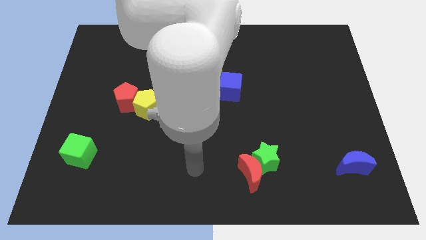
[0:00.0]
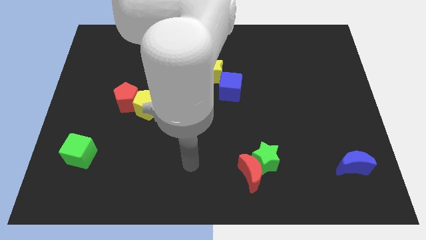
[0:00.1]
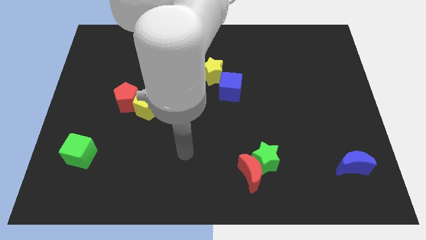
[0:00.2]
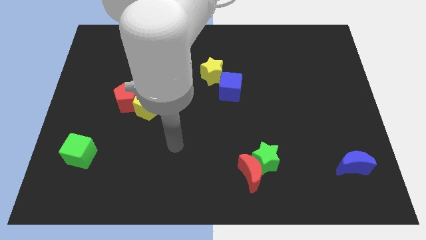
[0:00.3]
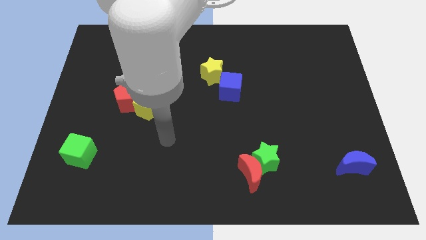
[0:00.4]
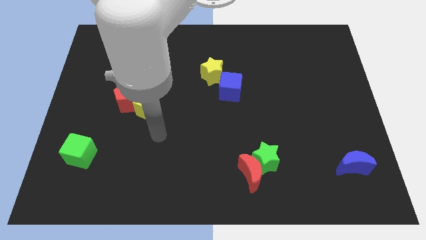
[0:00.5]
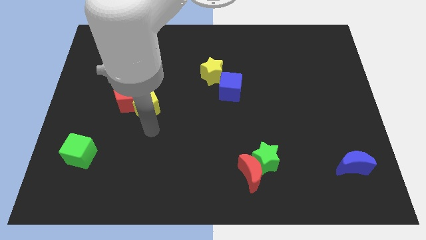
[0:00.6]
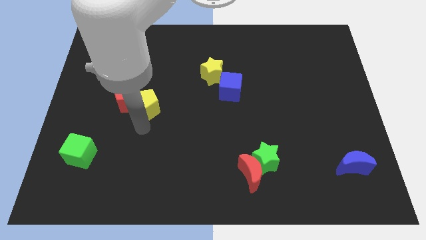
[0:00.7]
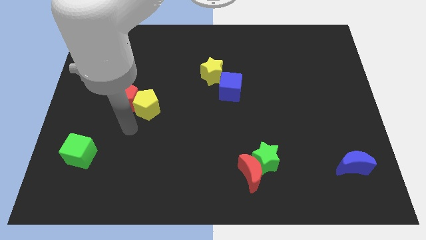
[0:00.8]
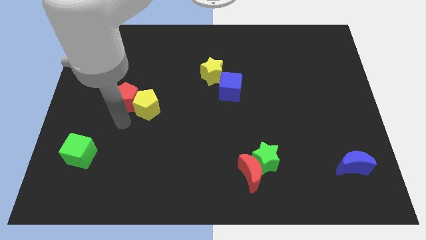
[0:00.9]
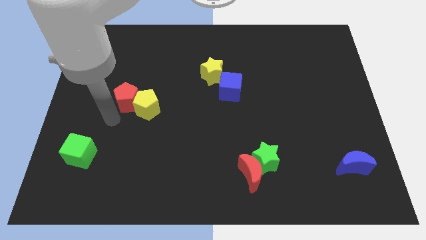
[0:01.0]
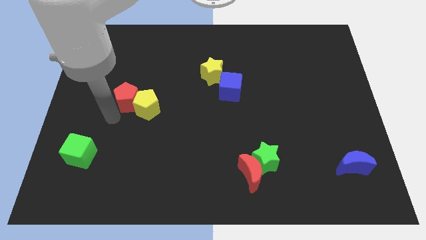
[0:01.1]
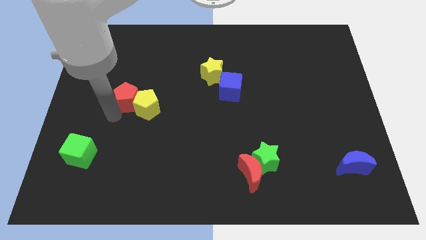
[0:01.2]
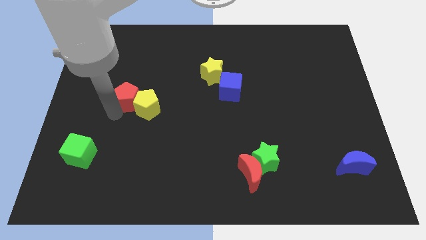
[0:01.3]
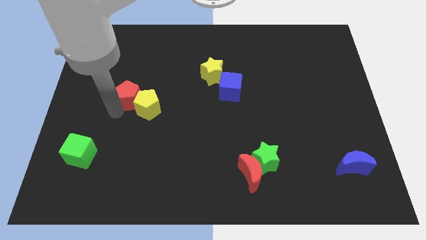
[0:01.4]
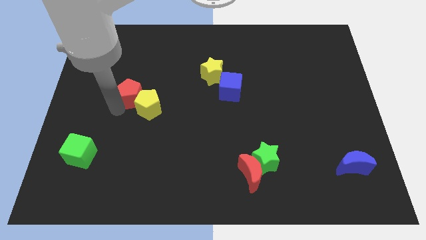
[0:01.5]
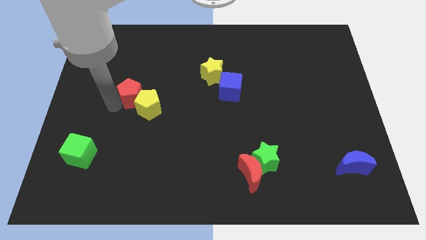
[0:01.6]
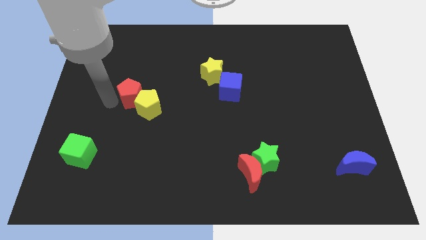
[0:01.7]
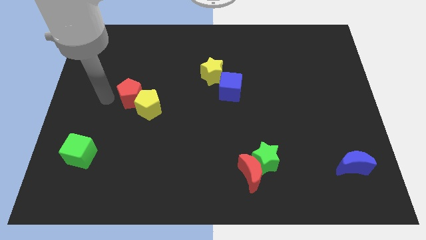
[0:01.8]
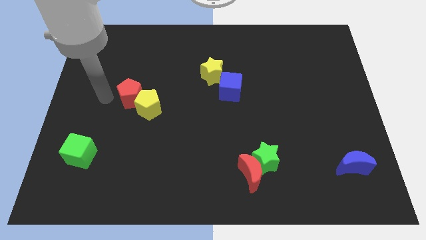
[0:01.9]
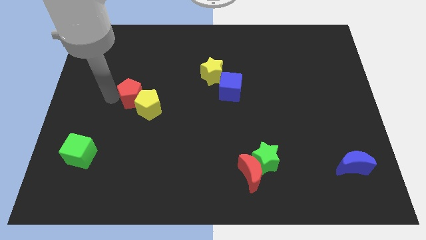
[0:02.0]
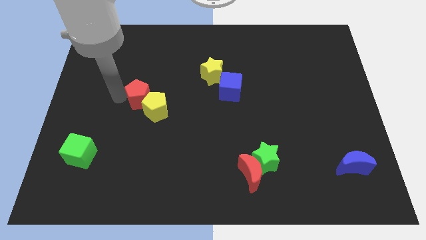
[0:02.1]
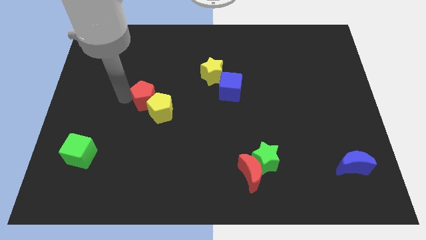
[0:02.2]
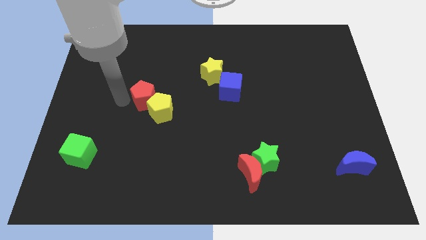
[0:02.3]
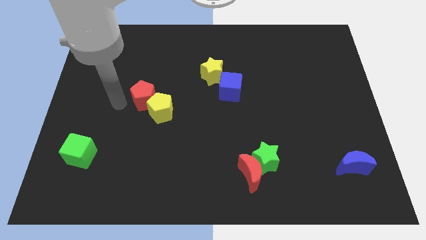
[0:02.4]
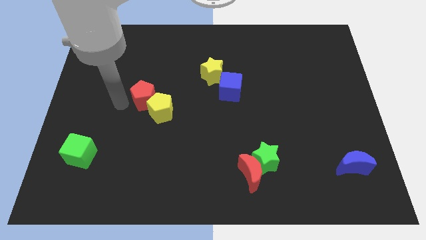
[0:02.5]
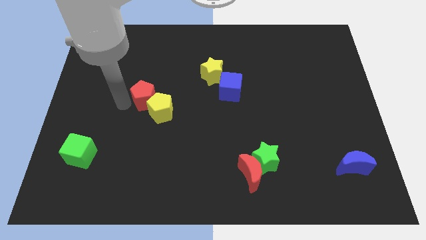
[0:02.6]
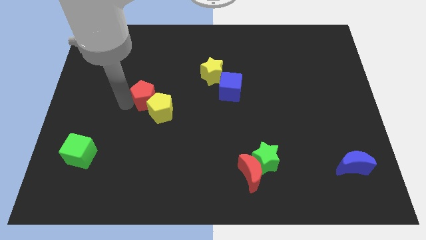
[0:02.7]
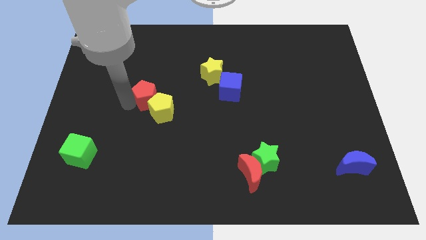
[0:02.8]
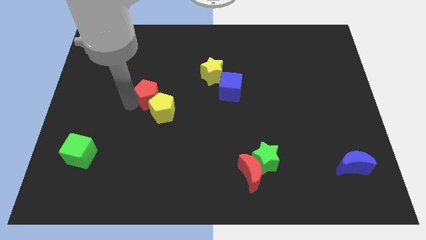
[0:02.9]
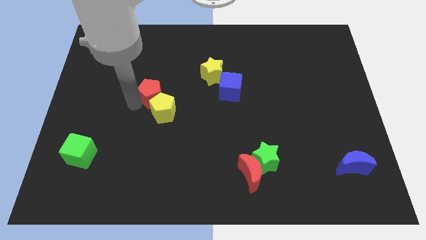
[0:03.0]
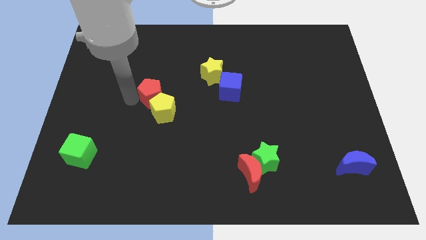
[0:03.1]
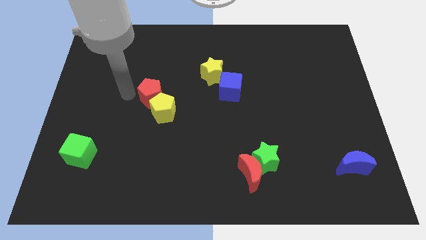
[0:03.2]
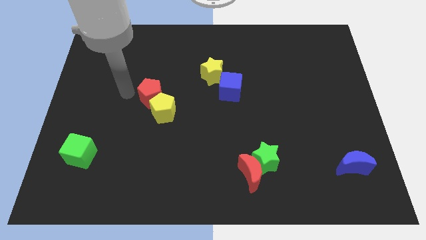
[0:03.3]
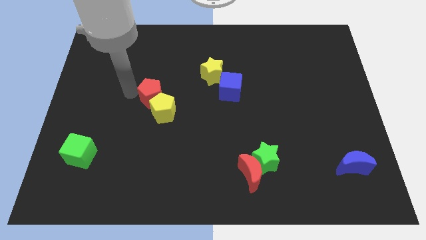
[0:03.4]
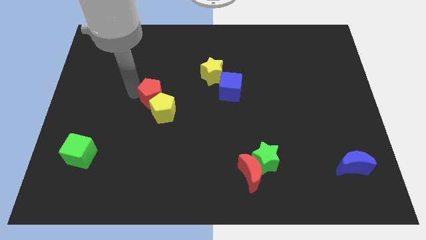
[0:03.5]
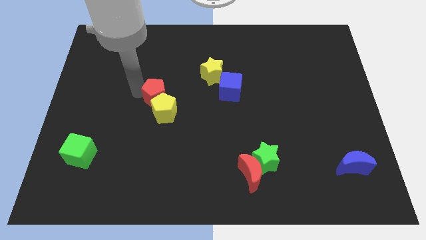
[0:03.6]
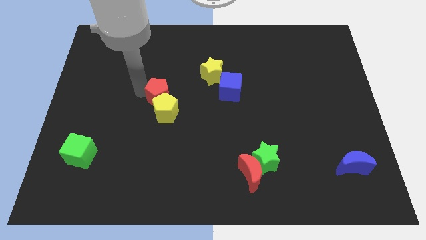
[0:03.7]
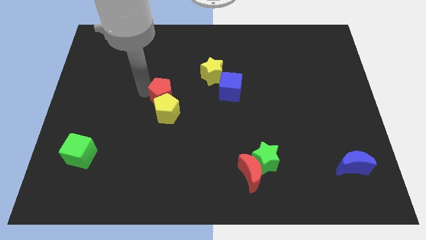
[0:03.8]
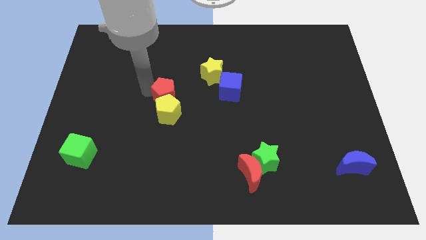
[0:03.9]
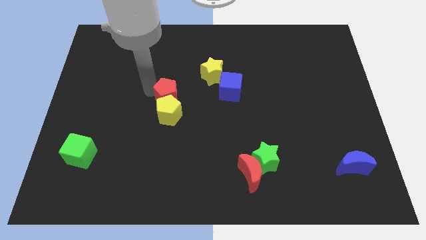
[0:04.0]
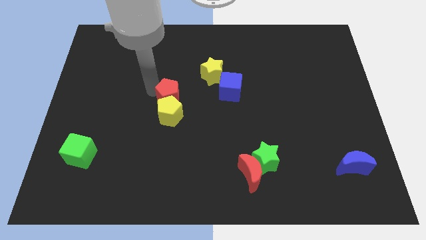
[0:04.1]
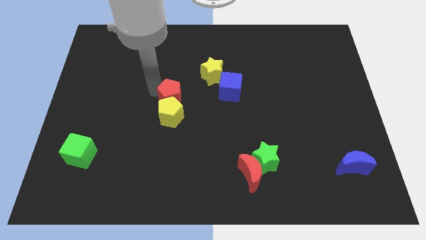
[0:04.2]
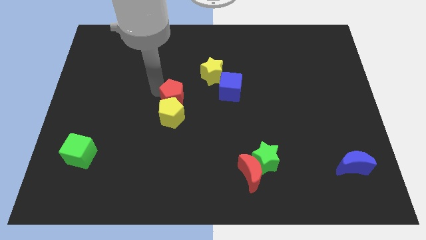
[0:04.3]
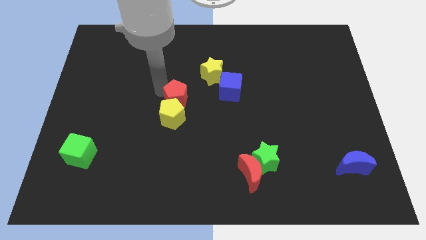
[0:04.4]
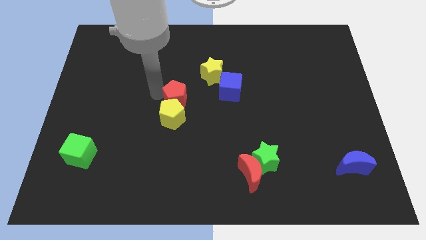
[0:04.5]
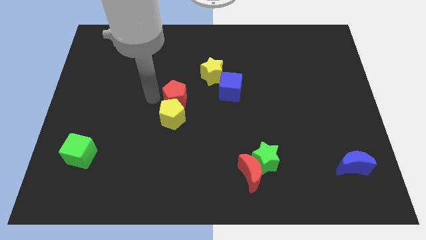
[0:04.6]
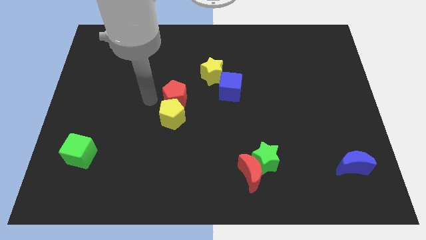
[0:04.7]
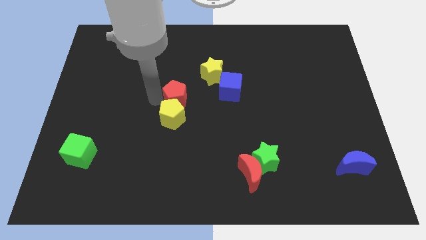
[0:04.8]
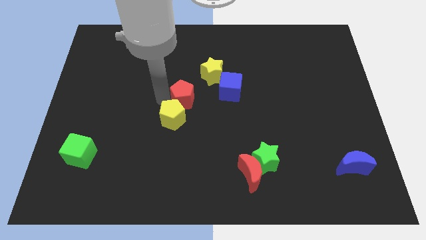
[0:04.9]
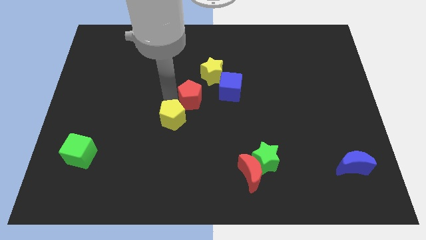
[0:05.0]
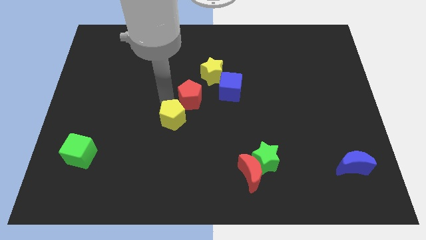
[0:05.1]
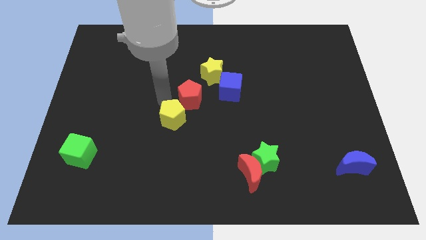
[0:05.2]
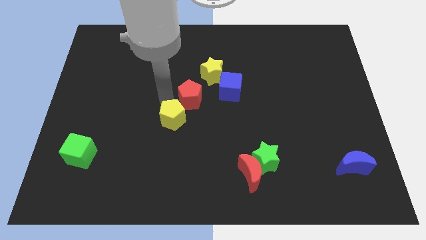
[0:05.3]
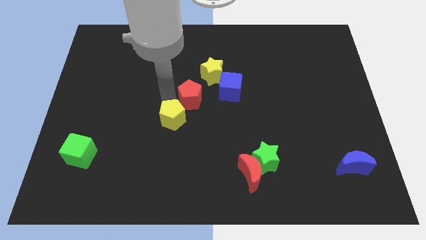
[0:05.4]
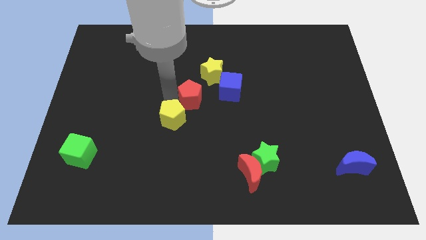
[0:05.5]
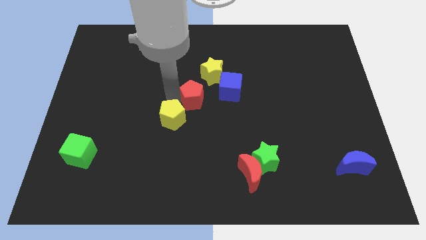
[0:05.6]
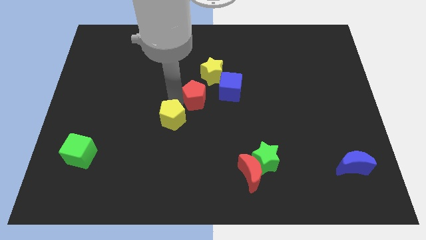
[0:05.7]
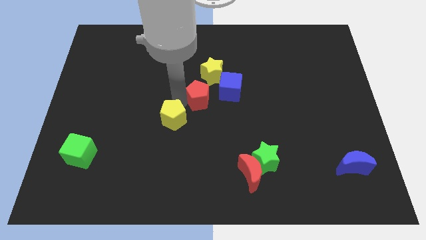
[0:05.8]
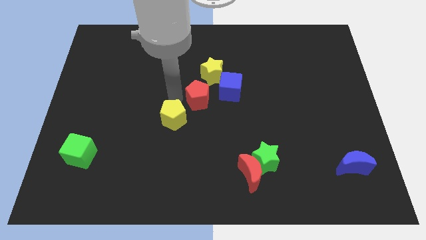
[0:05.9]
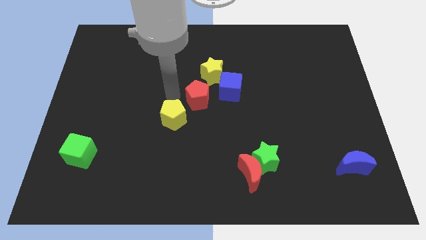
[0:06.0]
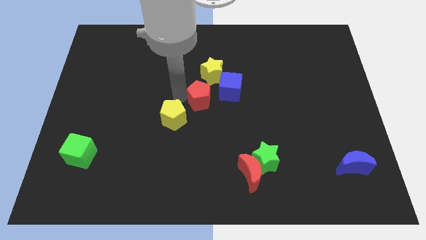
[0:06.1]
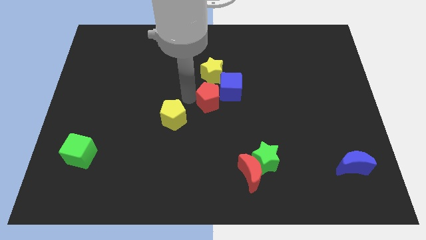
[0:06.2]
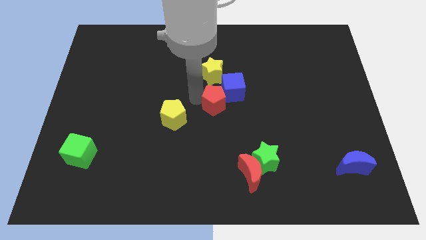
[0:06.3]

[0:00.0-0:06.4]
push the red pentagon to the right

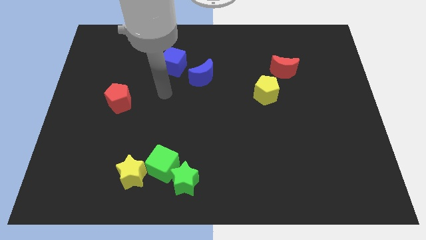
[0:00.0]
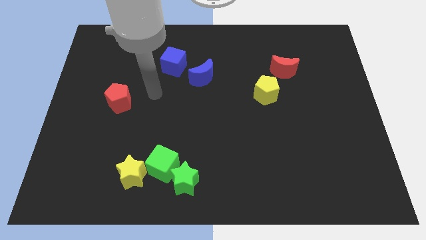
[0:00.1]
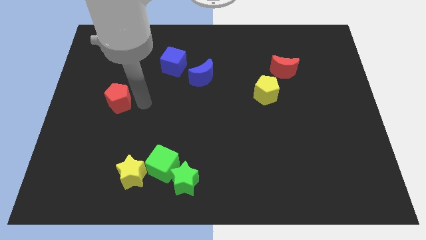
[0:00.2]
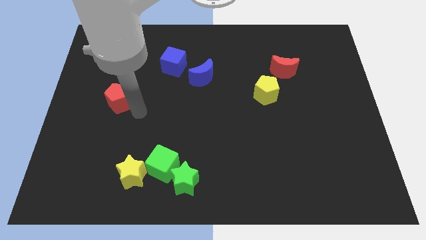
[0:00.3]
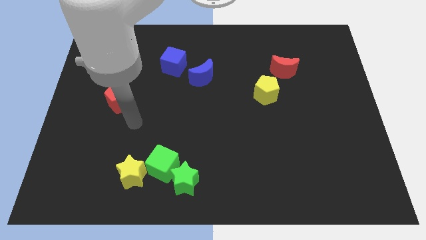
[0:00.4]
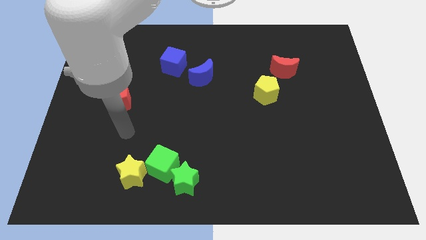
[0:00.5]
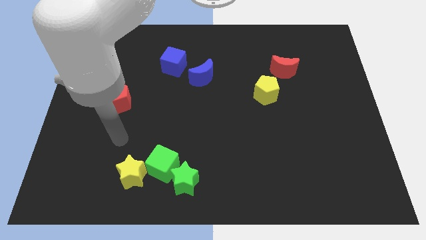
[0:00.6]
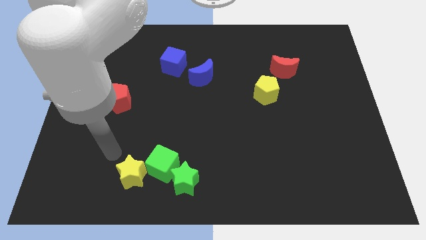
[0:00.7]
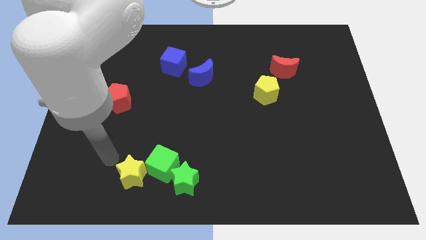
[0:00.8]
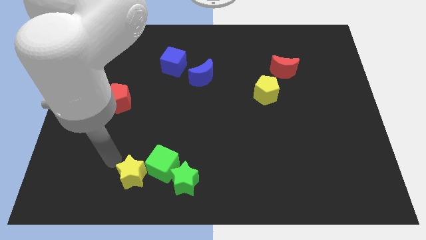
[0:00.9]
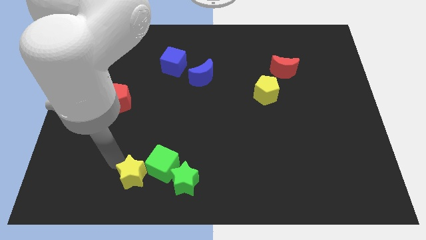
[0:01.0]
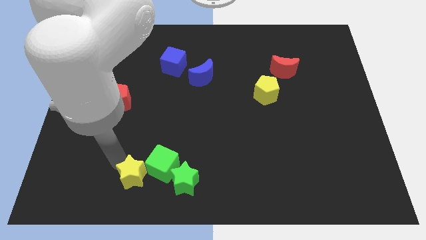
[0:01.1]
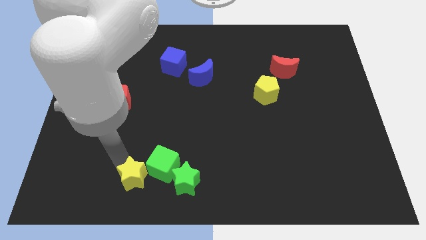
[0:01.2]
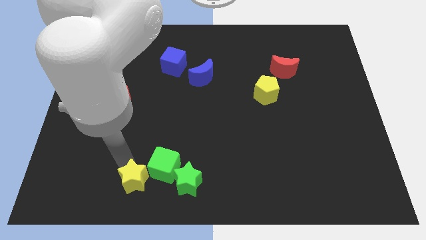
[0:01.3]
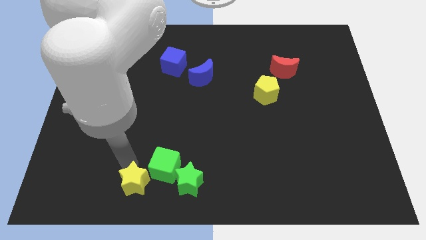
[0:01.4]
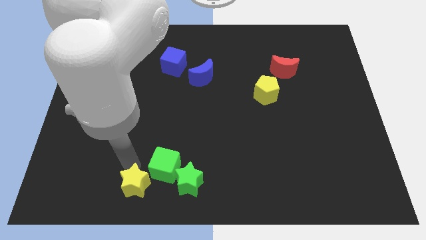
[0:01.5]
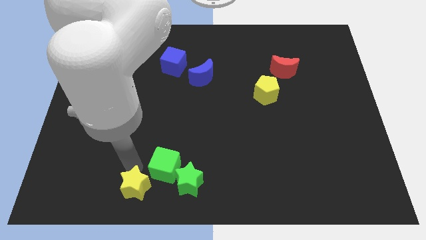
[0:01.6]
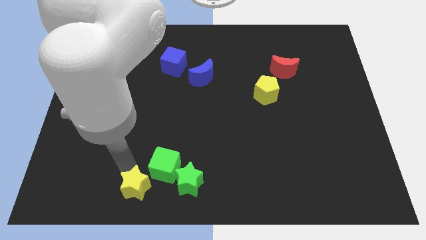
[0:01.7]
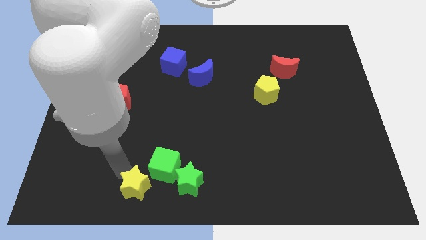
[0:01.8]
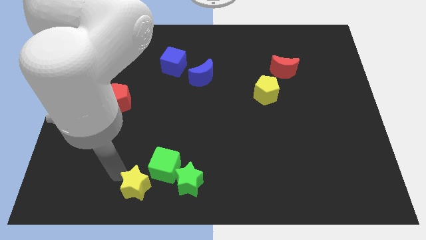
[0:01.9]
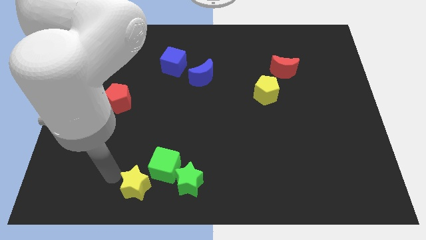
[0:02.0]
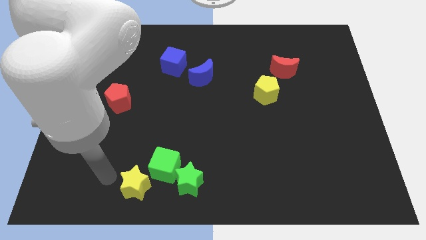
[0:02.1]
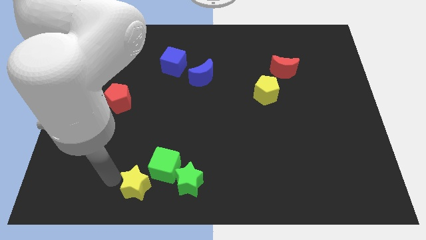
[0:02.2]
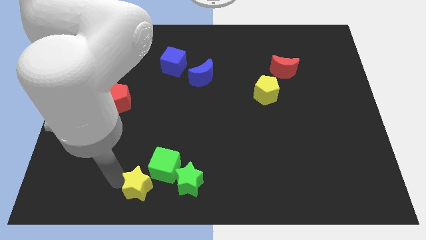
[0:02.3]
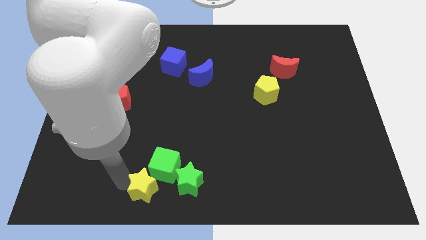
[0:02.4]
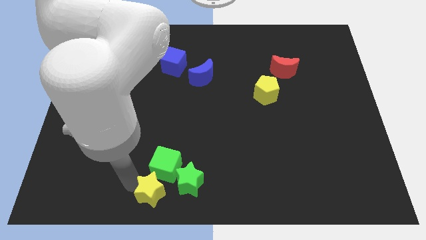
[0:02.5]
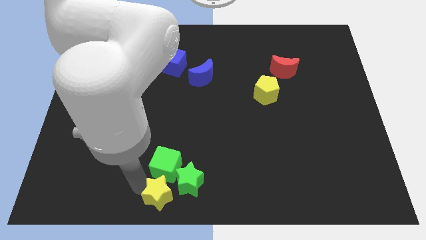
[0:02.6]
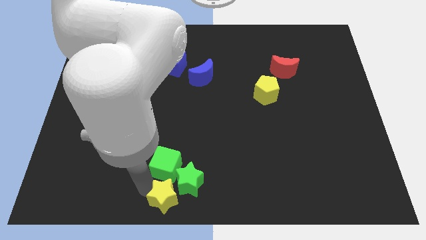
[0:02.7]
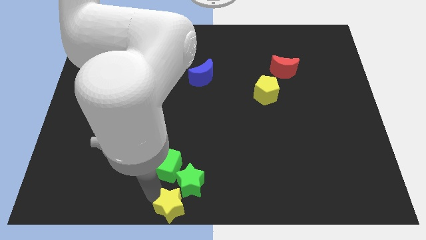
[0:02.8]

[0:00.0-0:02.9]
move the yellow star slightly to the right
